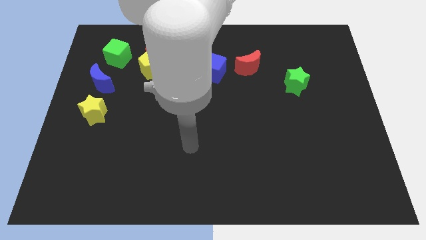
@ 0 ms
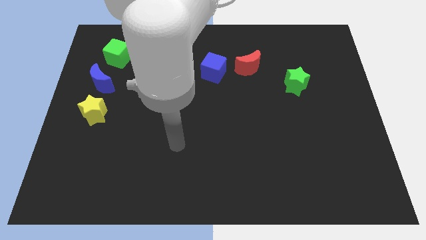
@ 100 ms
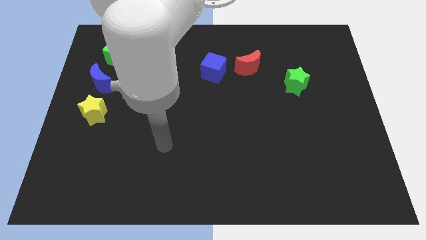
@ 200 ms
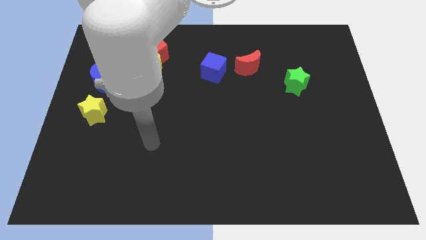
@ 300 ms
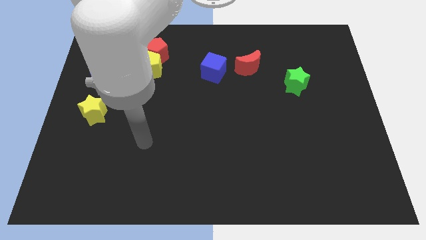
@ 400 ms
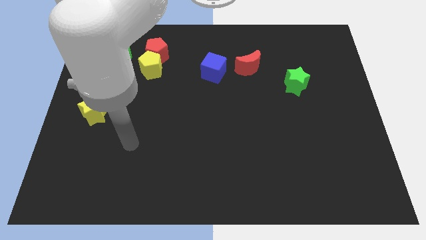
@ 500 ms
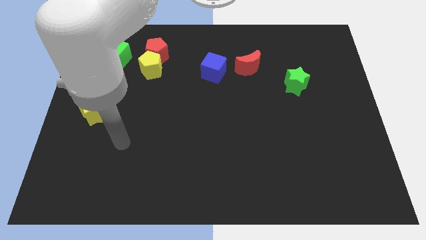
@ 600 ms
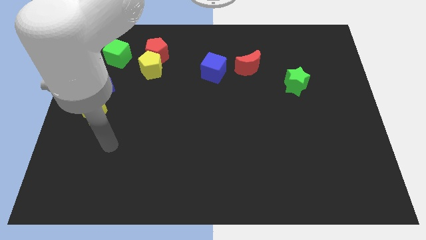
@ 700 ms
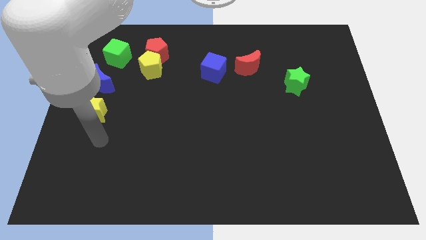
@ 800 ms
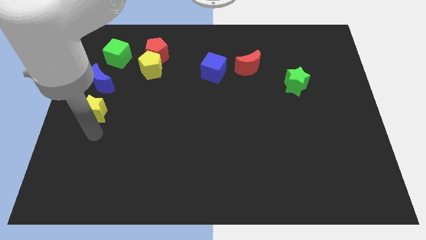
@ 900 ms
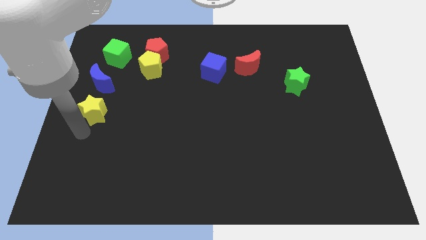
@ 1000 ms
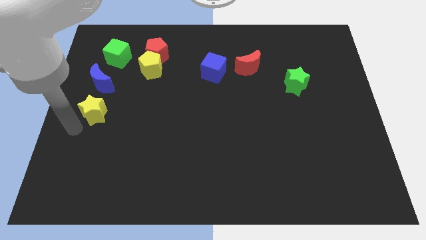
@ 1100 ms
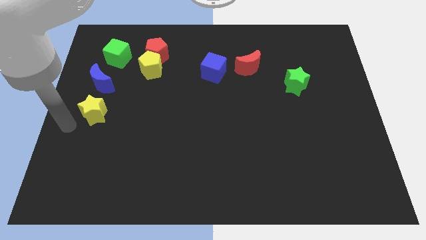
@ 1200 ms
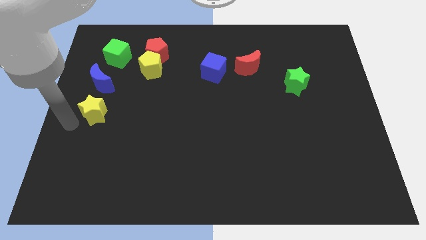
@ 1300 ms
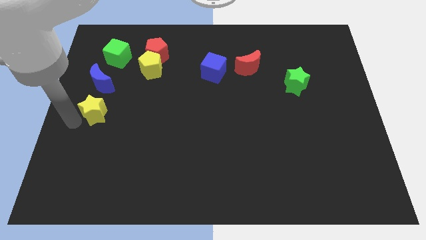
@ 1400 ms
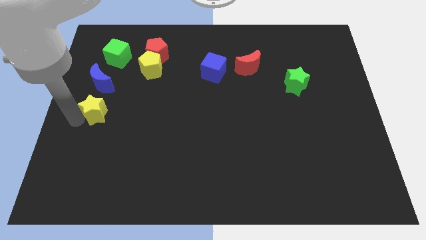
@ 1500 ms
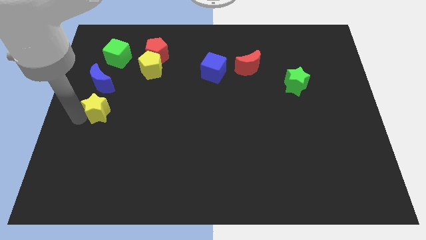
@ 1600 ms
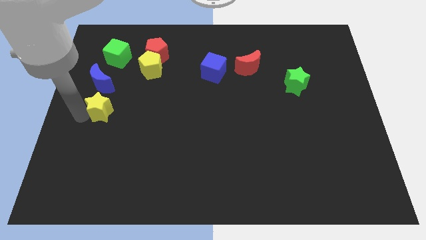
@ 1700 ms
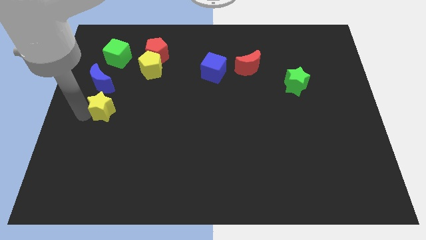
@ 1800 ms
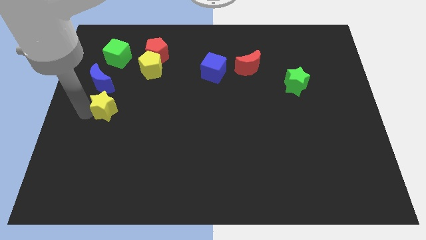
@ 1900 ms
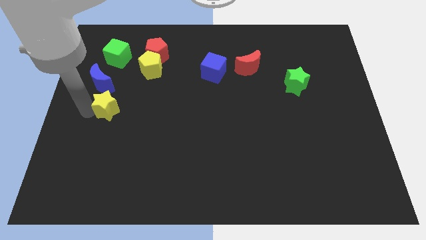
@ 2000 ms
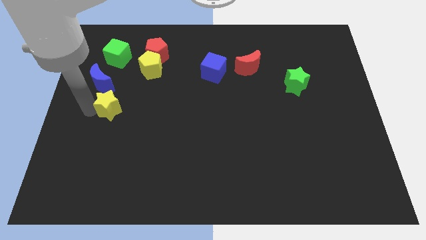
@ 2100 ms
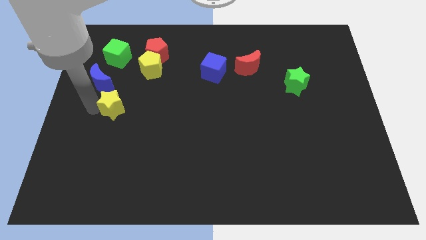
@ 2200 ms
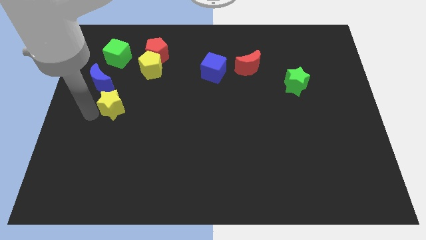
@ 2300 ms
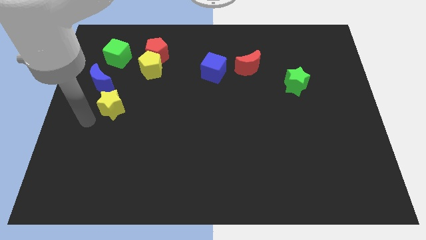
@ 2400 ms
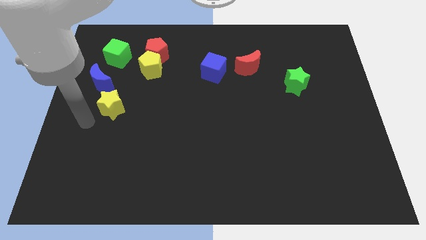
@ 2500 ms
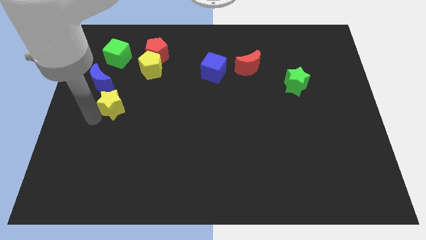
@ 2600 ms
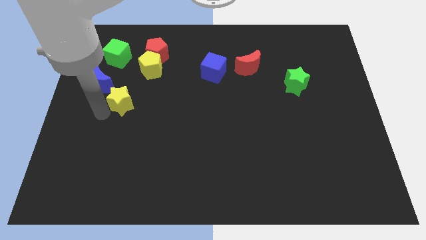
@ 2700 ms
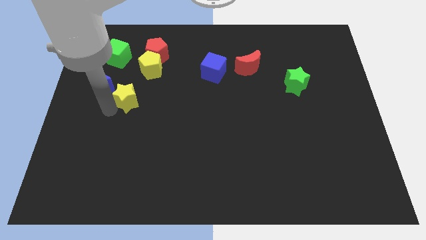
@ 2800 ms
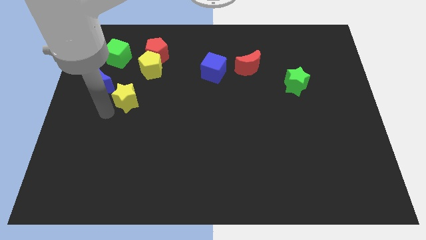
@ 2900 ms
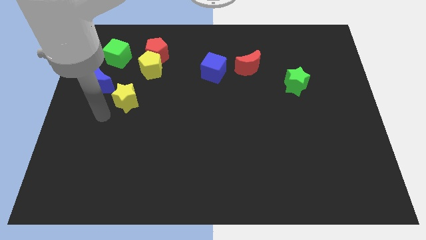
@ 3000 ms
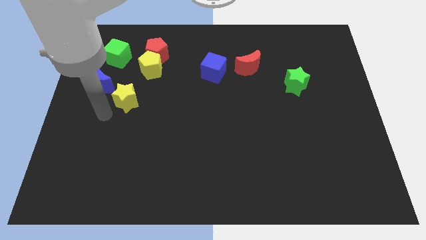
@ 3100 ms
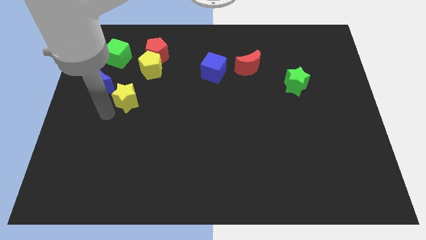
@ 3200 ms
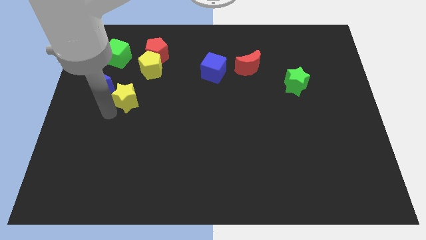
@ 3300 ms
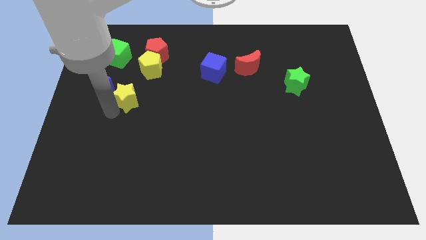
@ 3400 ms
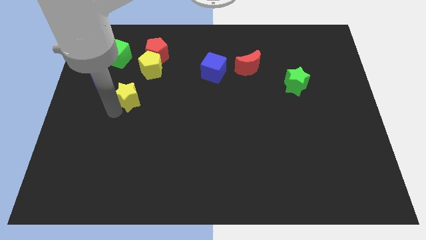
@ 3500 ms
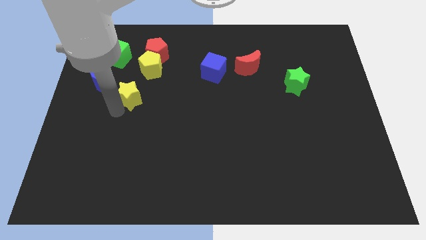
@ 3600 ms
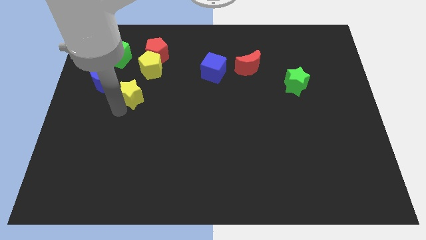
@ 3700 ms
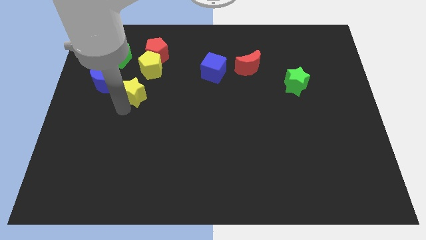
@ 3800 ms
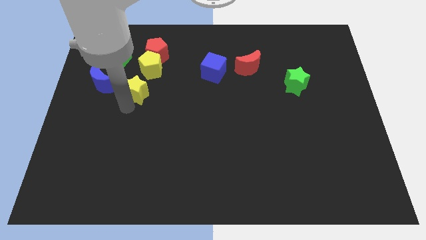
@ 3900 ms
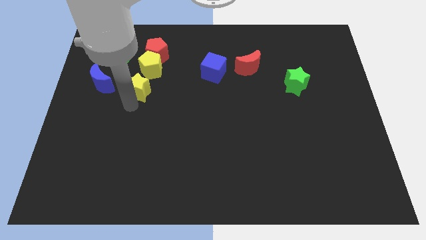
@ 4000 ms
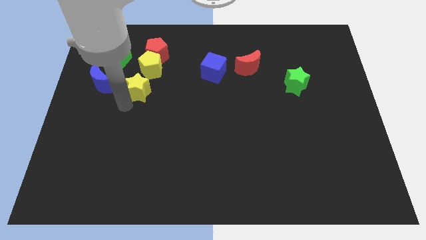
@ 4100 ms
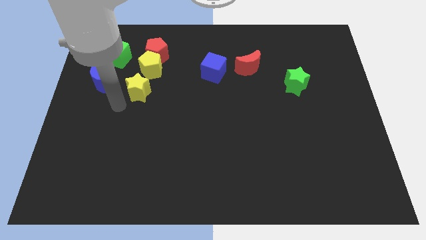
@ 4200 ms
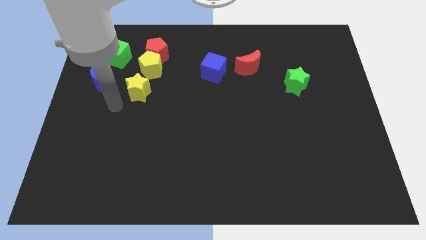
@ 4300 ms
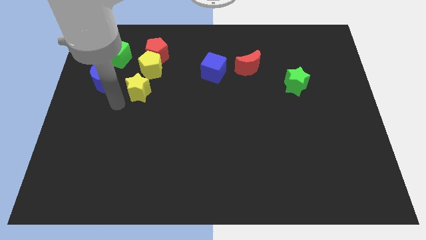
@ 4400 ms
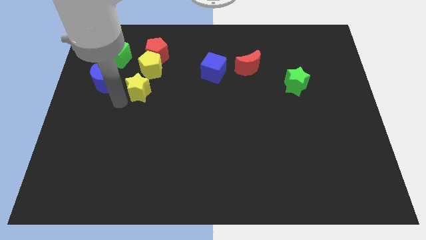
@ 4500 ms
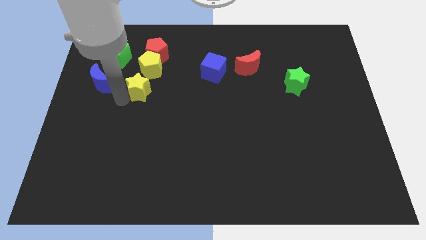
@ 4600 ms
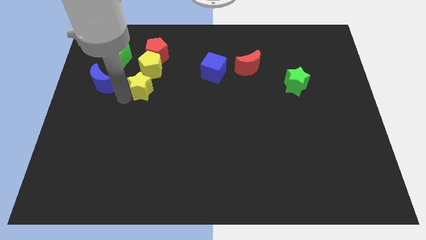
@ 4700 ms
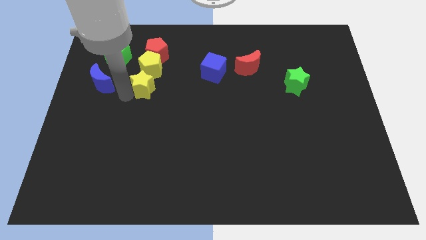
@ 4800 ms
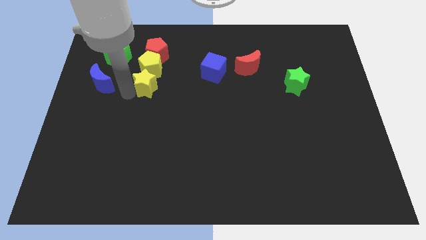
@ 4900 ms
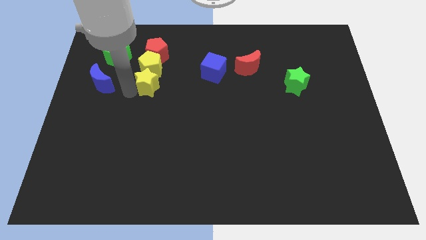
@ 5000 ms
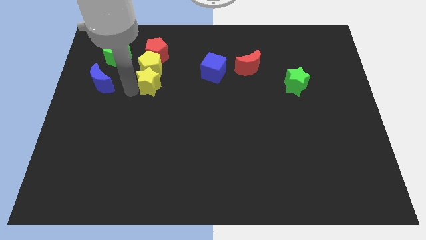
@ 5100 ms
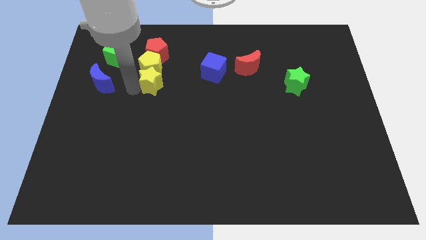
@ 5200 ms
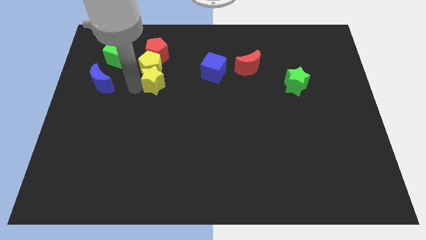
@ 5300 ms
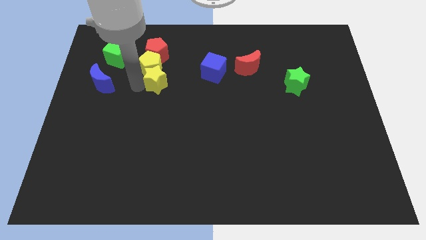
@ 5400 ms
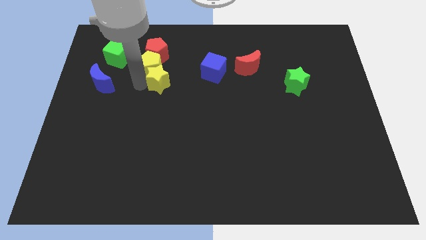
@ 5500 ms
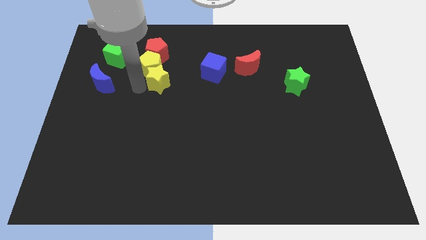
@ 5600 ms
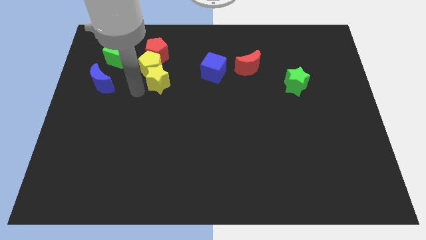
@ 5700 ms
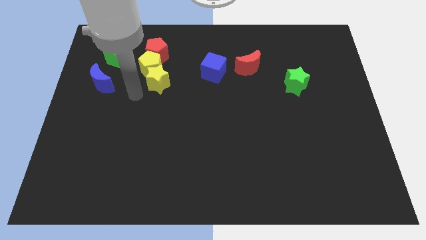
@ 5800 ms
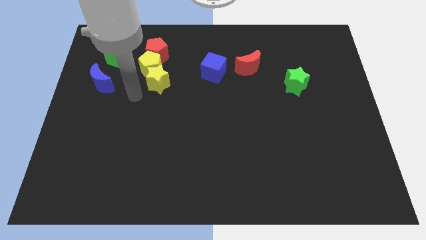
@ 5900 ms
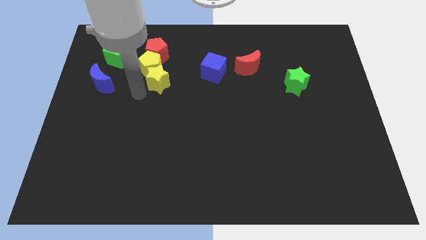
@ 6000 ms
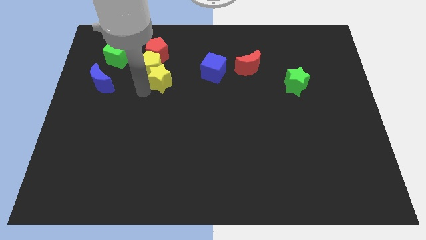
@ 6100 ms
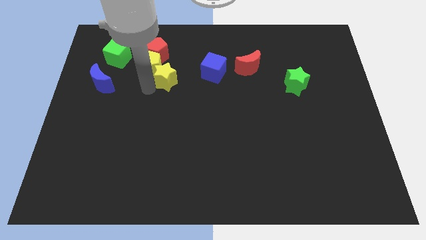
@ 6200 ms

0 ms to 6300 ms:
slide the yellow star right of the yellow pentagon

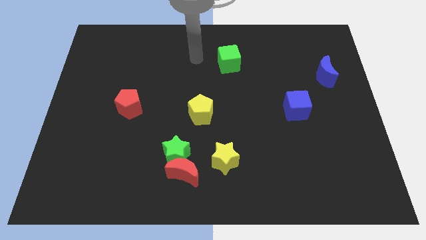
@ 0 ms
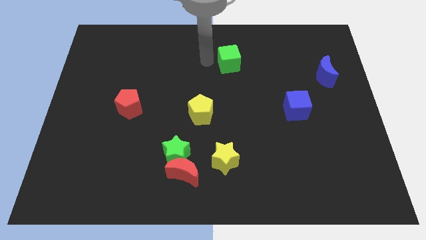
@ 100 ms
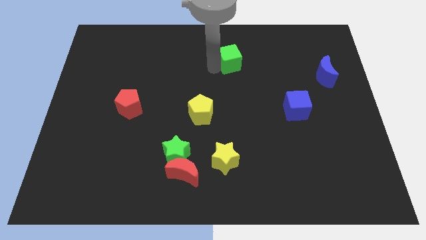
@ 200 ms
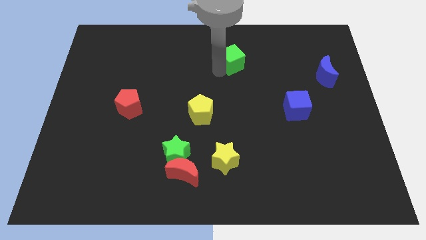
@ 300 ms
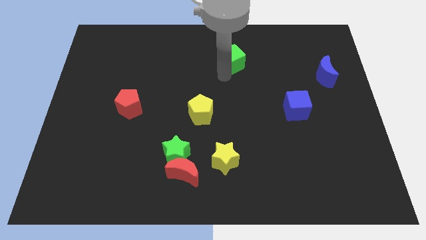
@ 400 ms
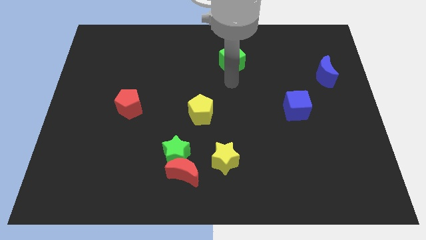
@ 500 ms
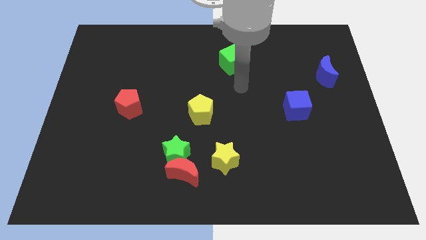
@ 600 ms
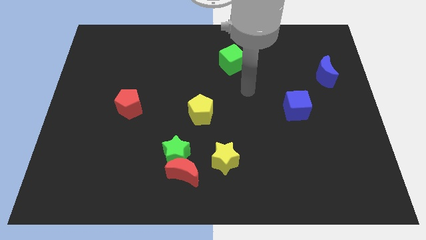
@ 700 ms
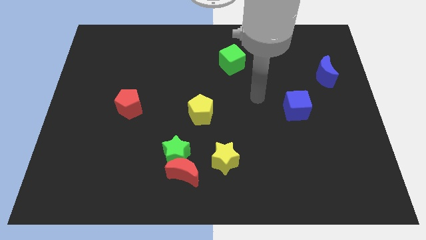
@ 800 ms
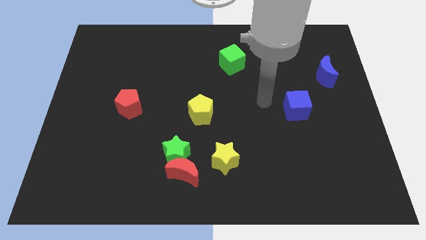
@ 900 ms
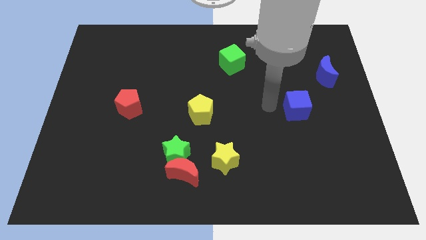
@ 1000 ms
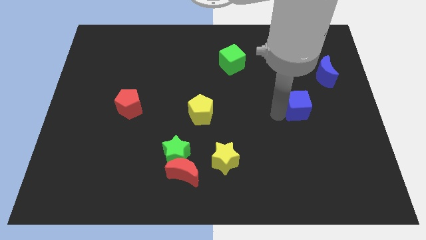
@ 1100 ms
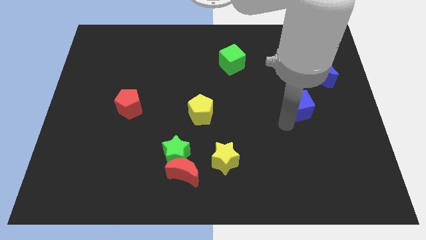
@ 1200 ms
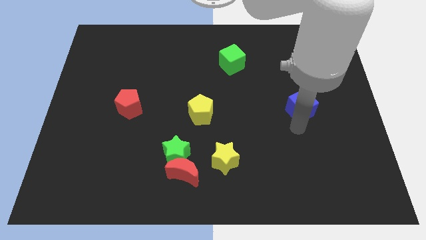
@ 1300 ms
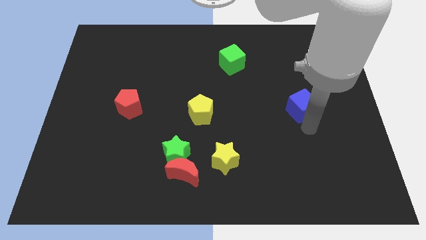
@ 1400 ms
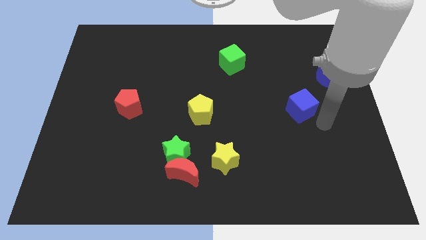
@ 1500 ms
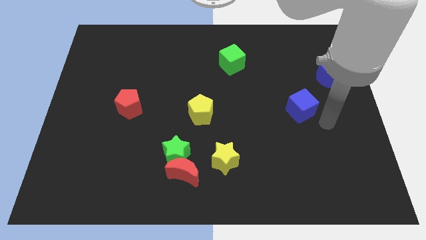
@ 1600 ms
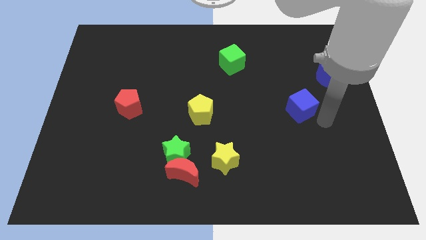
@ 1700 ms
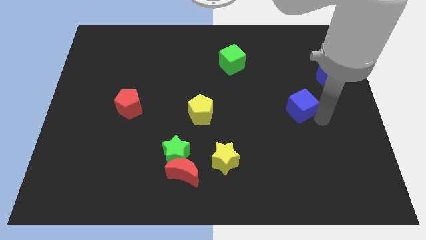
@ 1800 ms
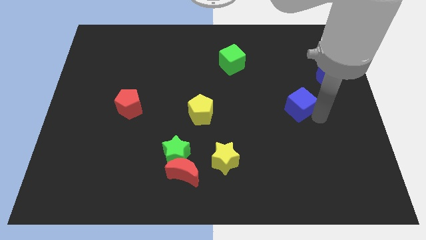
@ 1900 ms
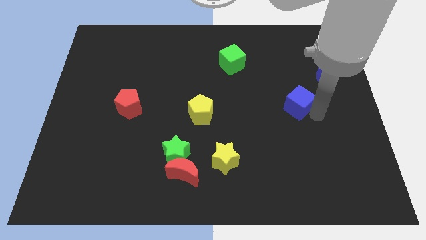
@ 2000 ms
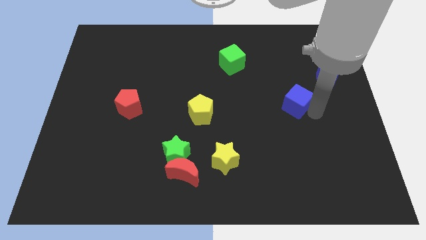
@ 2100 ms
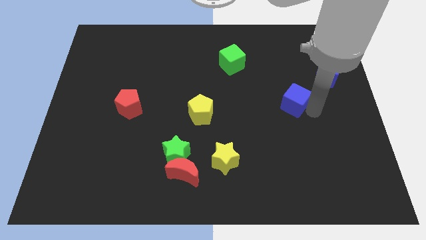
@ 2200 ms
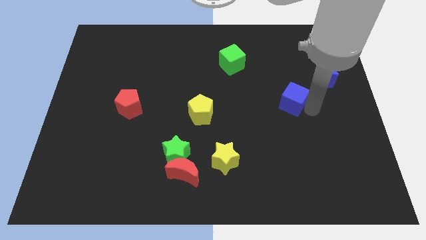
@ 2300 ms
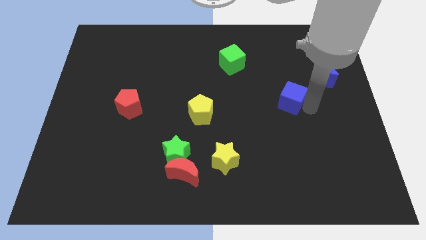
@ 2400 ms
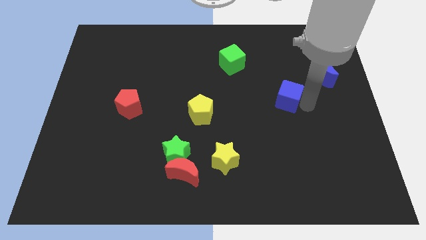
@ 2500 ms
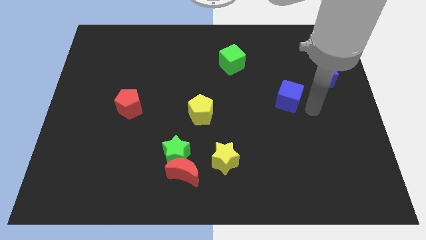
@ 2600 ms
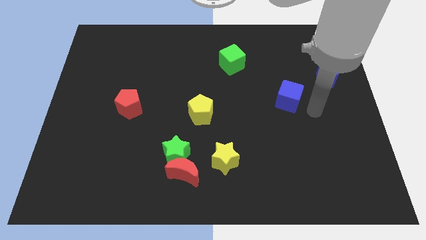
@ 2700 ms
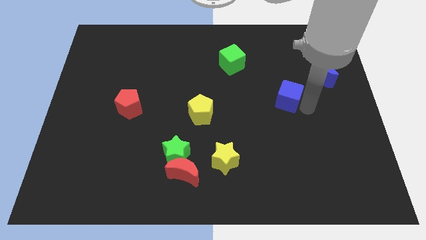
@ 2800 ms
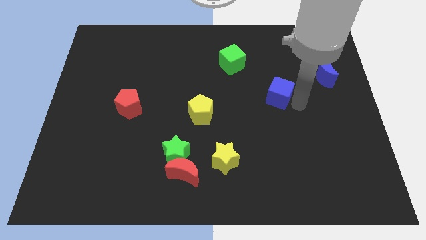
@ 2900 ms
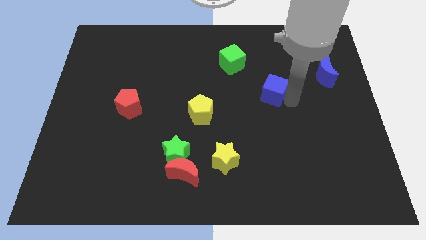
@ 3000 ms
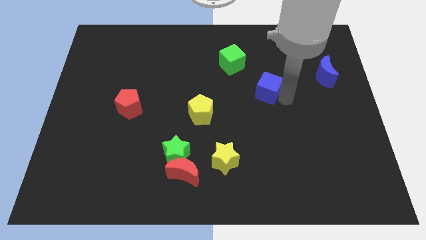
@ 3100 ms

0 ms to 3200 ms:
put the blue cube to the bottom right of the green cube
